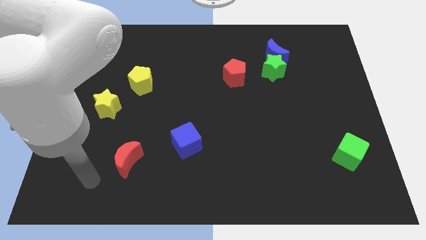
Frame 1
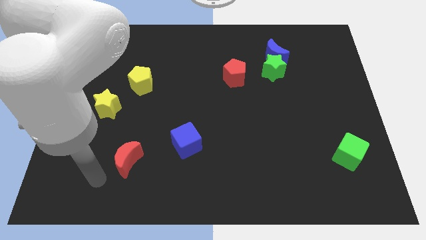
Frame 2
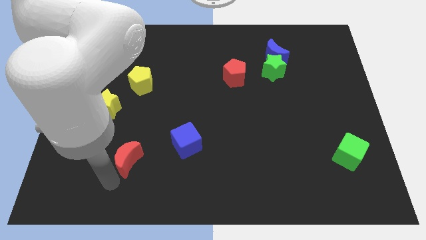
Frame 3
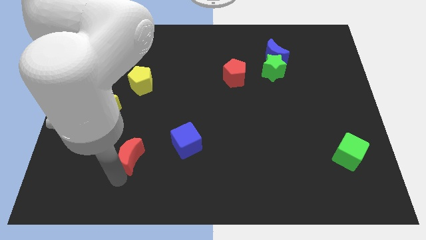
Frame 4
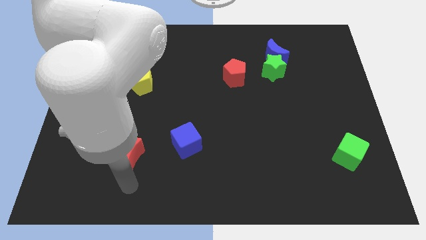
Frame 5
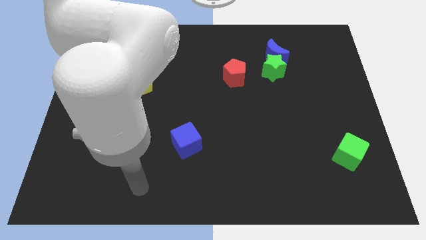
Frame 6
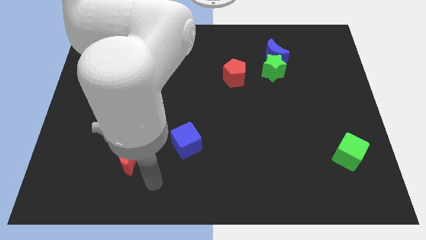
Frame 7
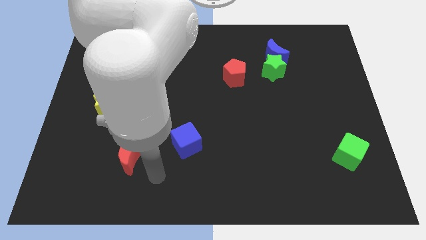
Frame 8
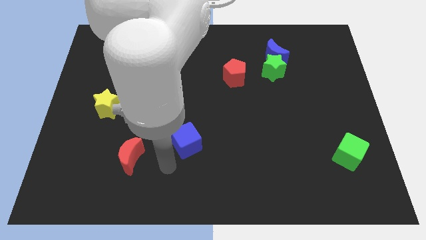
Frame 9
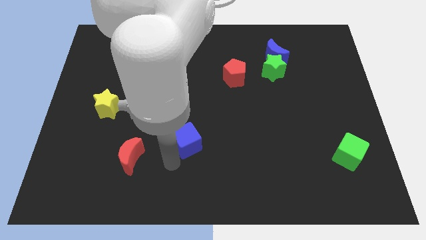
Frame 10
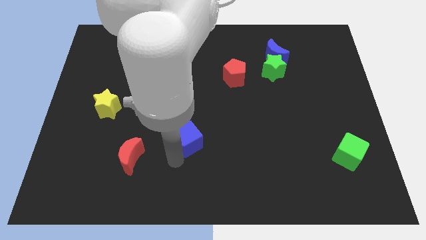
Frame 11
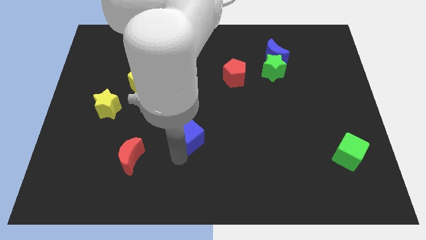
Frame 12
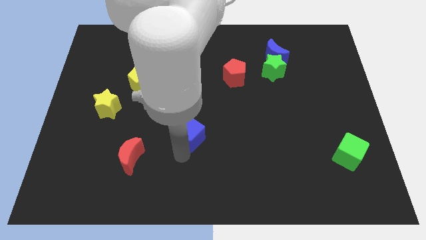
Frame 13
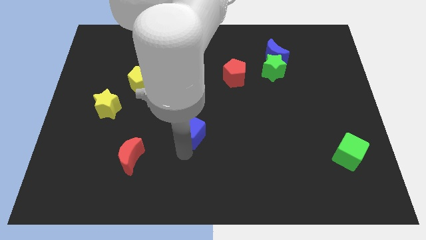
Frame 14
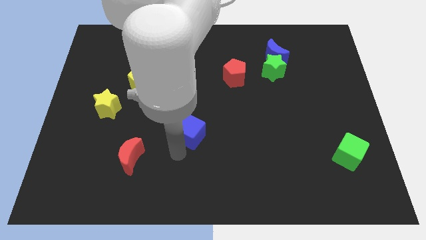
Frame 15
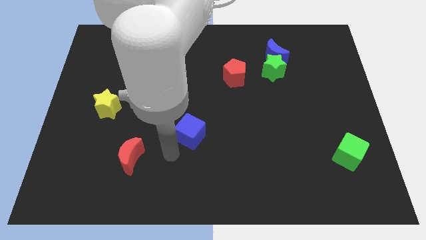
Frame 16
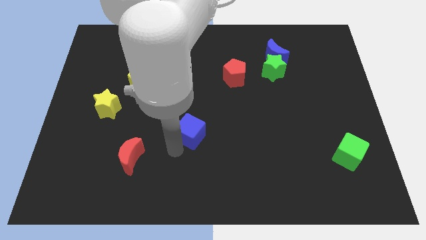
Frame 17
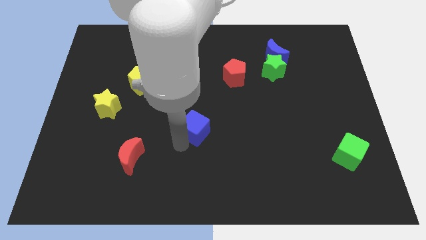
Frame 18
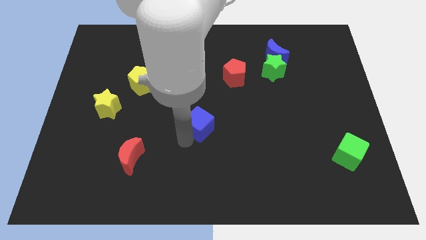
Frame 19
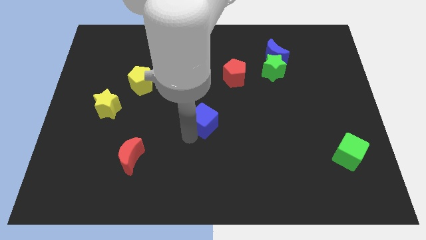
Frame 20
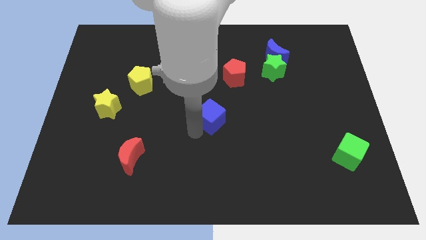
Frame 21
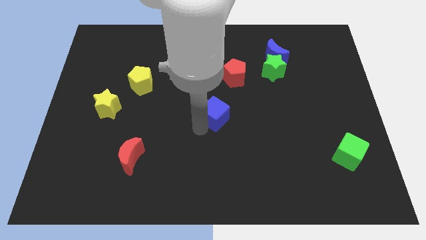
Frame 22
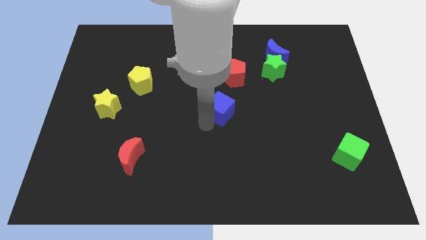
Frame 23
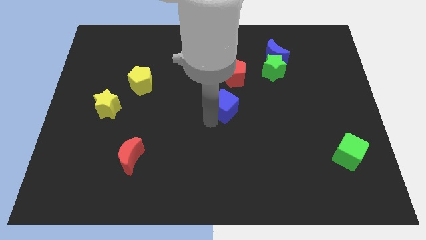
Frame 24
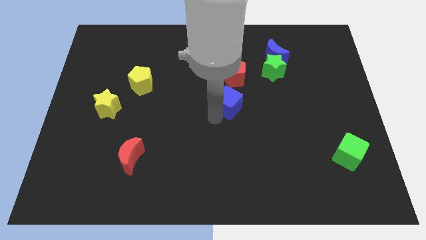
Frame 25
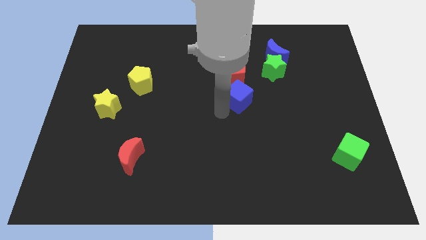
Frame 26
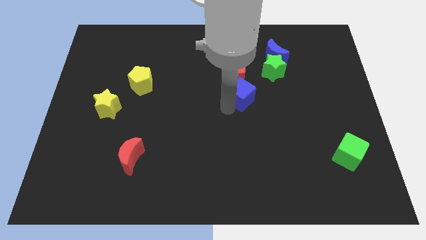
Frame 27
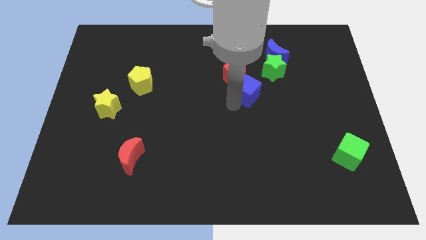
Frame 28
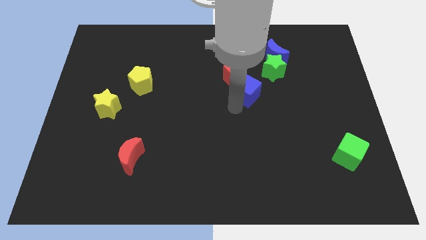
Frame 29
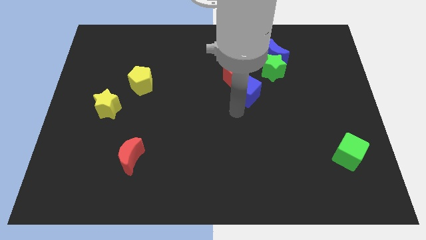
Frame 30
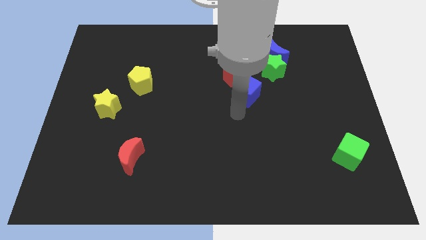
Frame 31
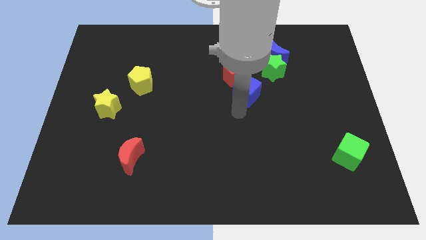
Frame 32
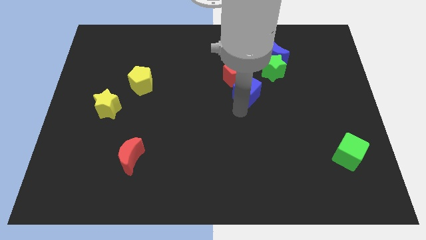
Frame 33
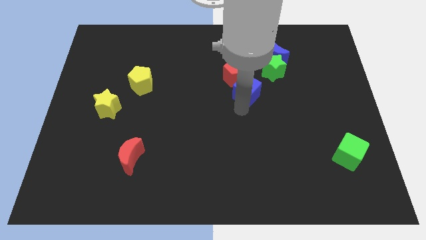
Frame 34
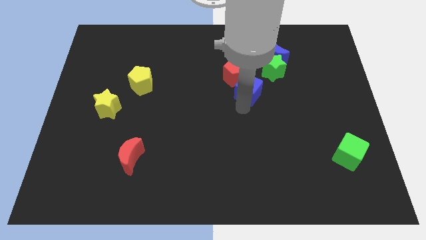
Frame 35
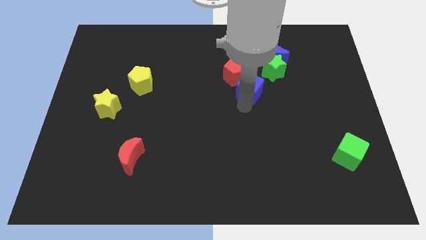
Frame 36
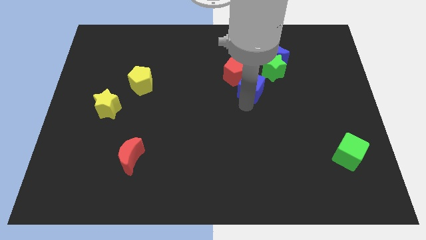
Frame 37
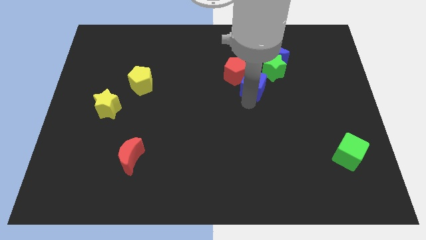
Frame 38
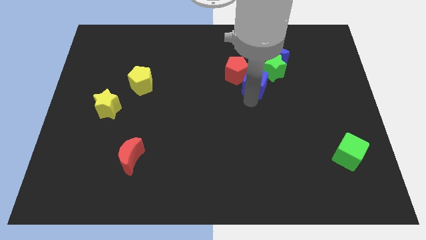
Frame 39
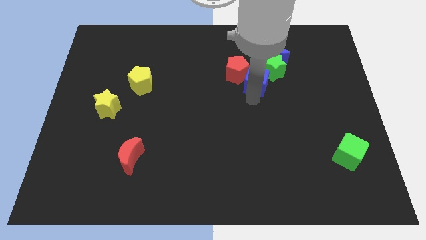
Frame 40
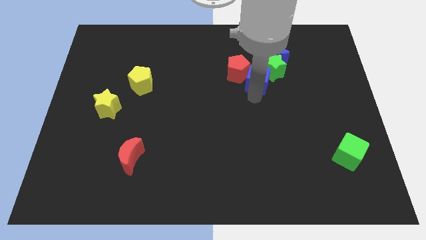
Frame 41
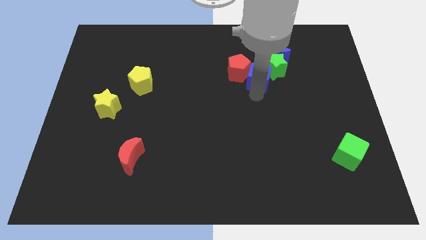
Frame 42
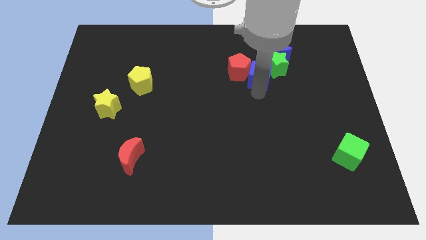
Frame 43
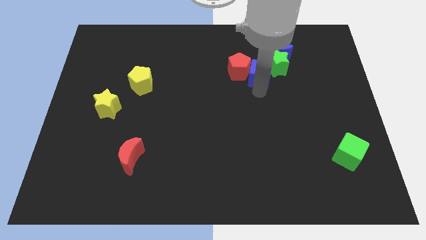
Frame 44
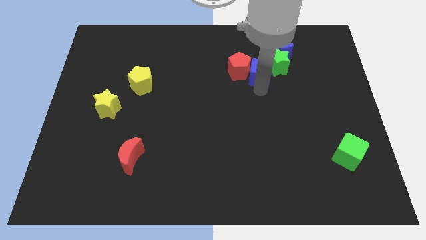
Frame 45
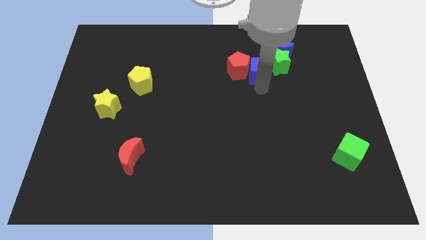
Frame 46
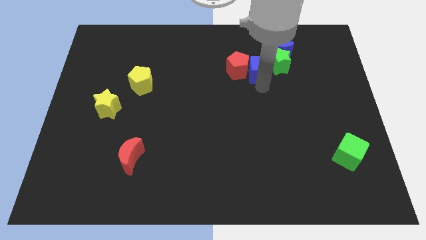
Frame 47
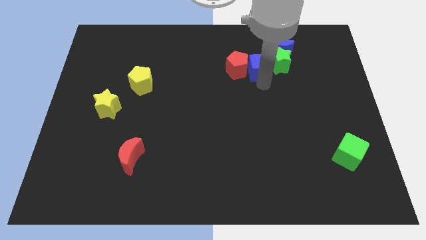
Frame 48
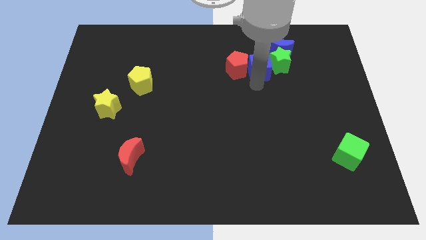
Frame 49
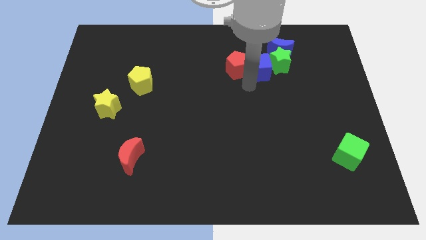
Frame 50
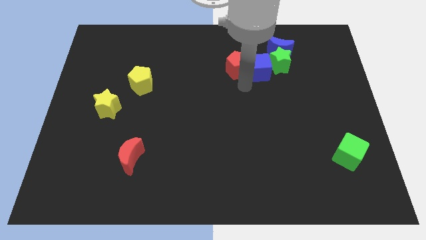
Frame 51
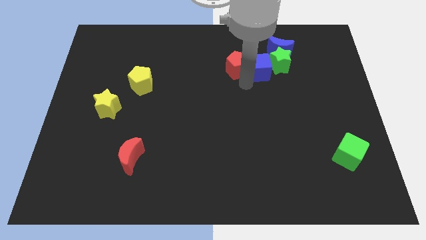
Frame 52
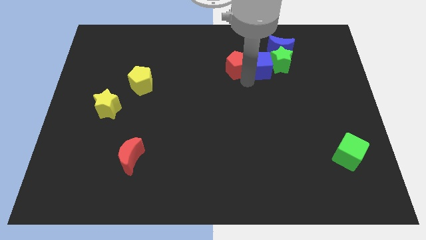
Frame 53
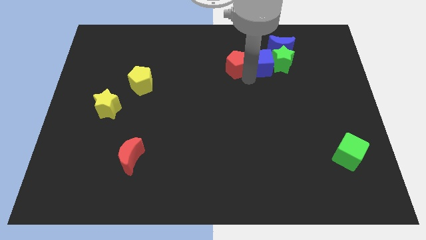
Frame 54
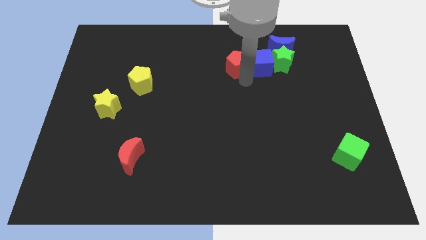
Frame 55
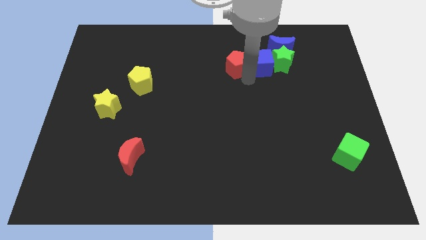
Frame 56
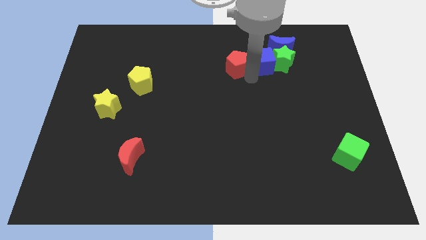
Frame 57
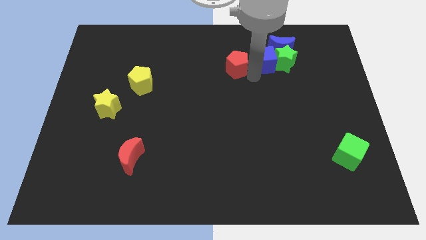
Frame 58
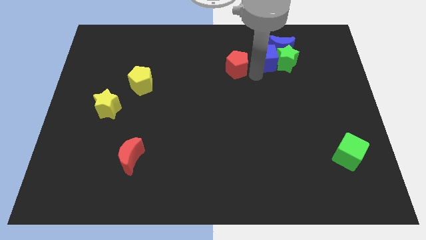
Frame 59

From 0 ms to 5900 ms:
move the blue cube next to the blue moon
